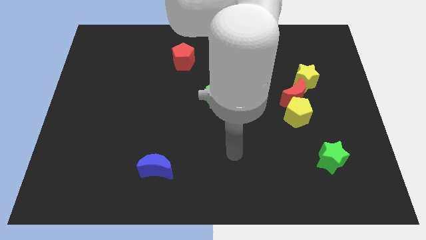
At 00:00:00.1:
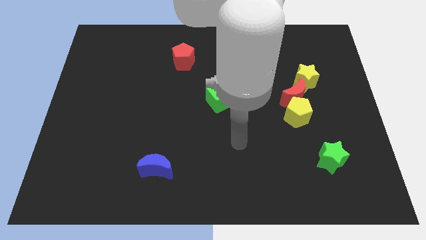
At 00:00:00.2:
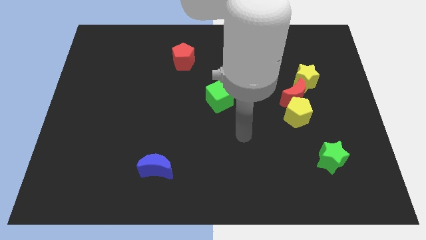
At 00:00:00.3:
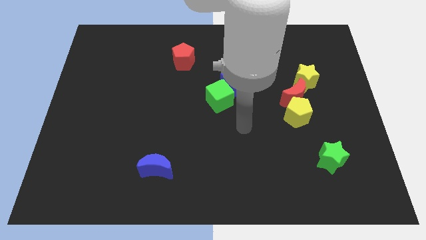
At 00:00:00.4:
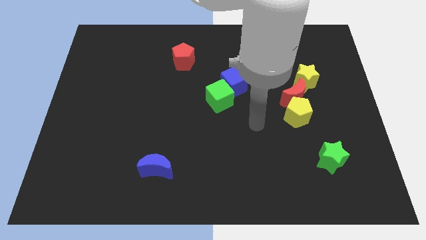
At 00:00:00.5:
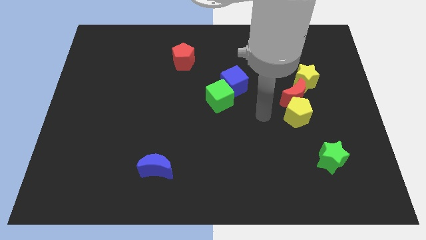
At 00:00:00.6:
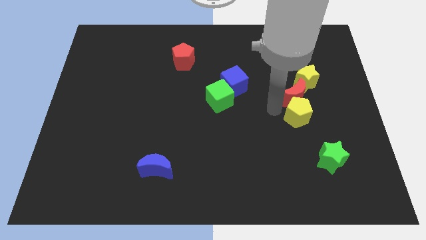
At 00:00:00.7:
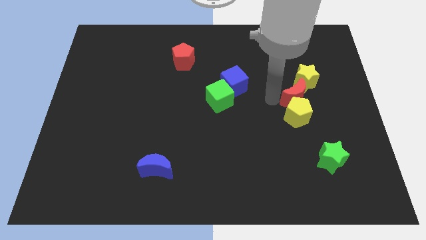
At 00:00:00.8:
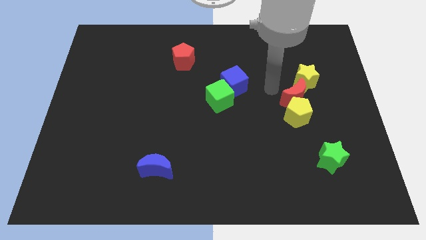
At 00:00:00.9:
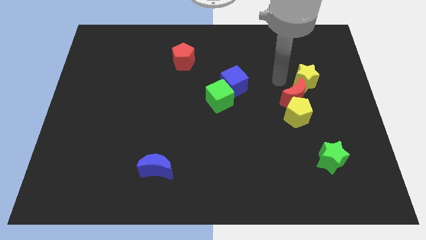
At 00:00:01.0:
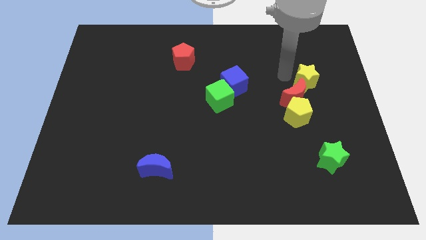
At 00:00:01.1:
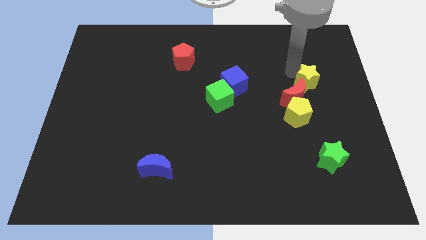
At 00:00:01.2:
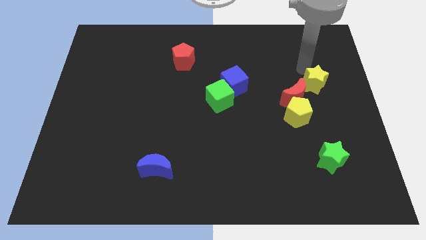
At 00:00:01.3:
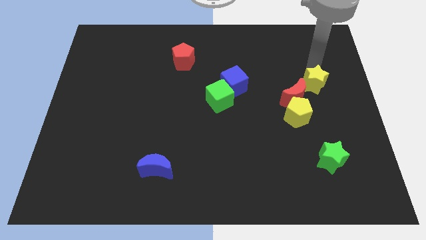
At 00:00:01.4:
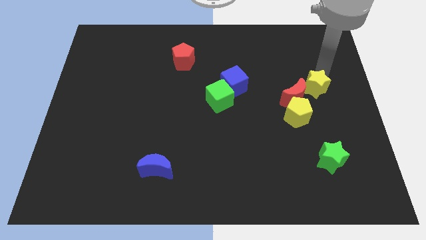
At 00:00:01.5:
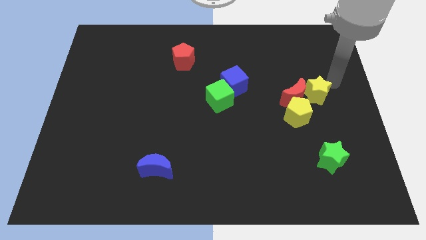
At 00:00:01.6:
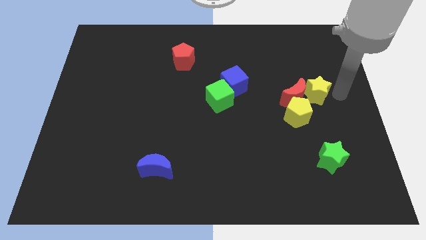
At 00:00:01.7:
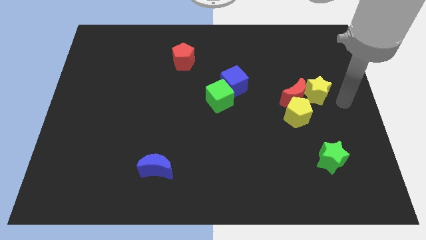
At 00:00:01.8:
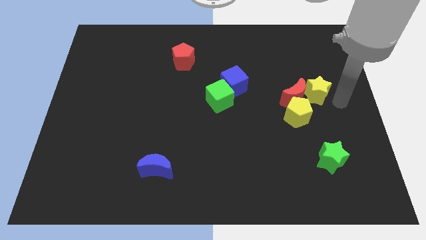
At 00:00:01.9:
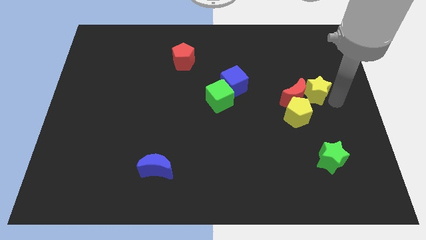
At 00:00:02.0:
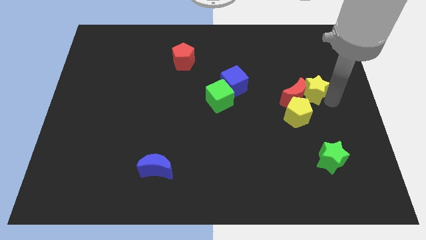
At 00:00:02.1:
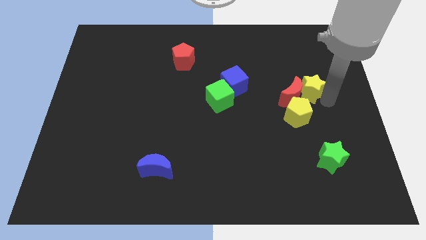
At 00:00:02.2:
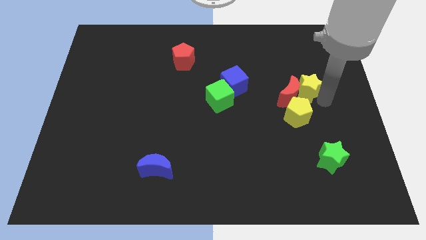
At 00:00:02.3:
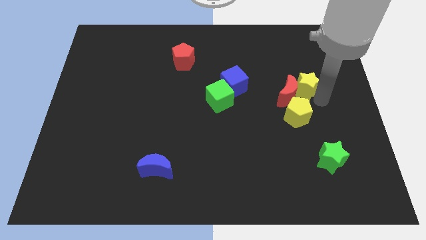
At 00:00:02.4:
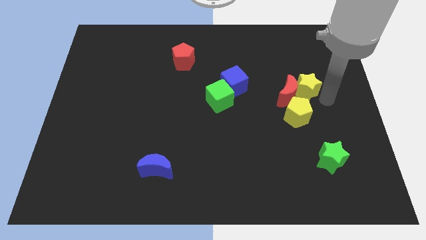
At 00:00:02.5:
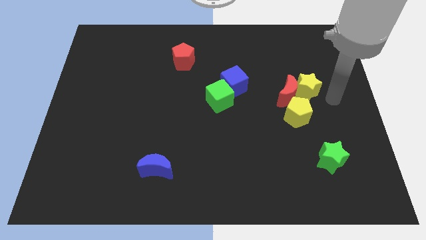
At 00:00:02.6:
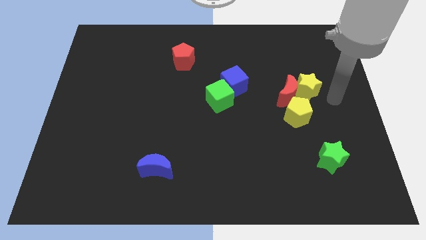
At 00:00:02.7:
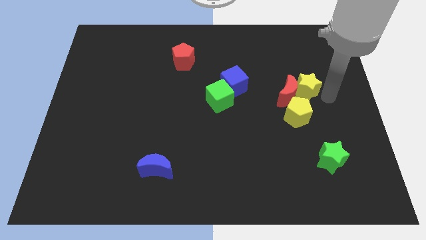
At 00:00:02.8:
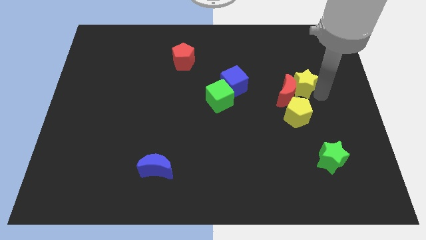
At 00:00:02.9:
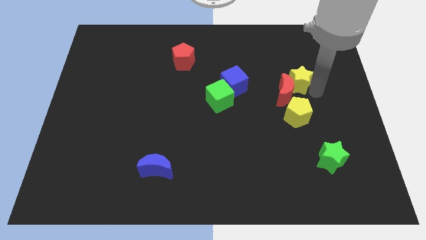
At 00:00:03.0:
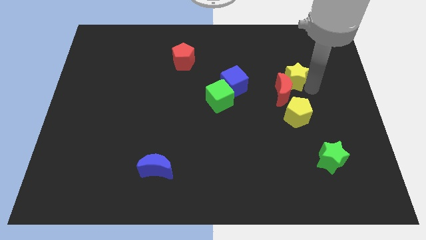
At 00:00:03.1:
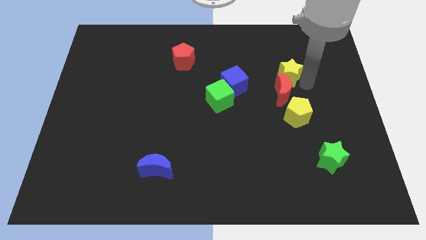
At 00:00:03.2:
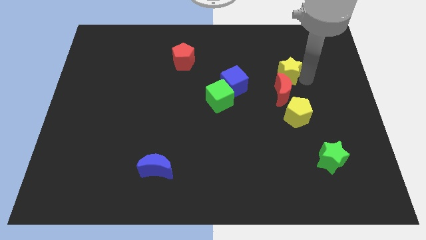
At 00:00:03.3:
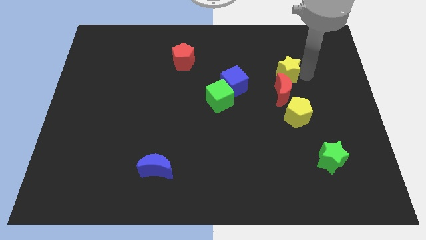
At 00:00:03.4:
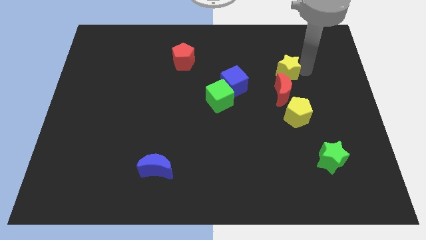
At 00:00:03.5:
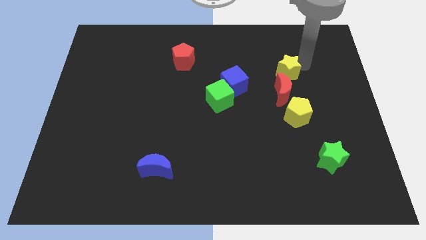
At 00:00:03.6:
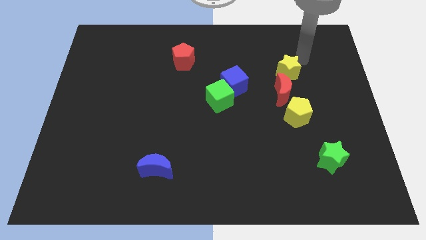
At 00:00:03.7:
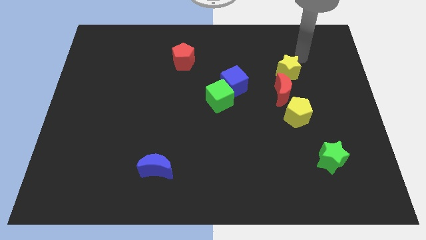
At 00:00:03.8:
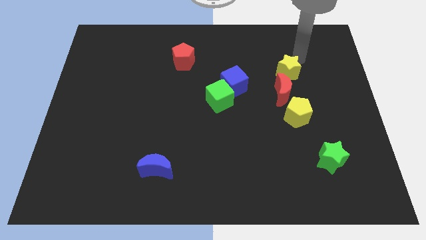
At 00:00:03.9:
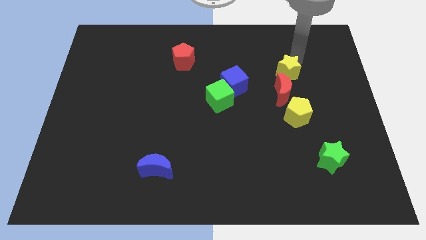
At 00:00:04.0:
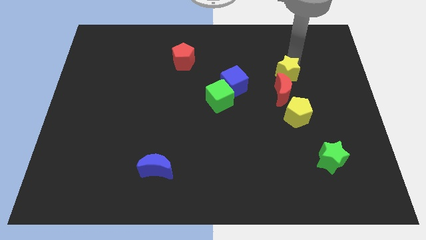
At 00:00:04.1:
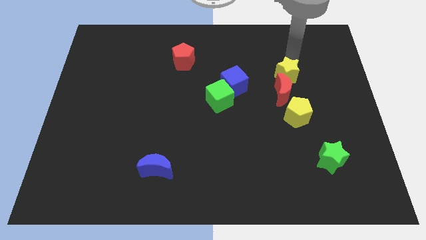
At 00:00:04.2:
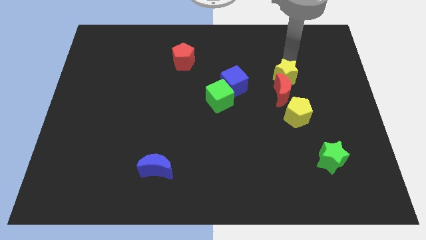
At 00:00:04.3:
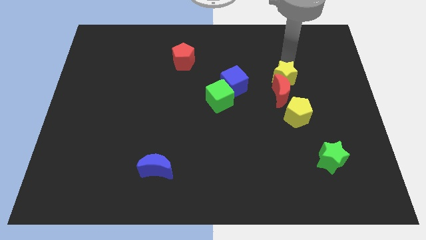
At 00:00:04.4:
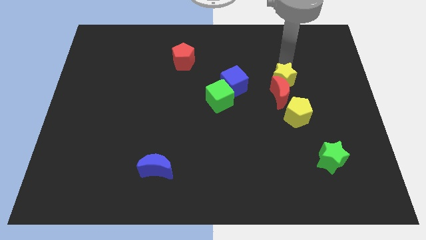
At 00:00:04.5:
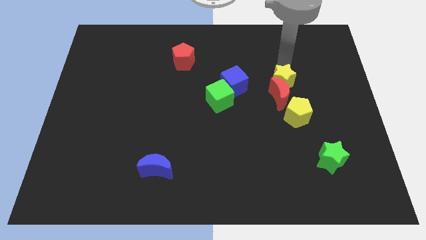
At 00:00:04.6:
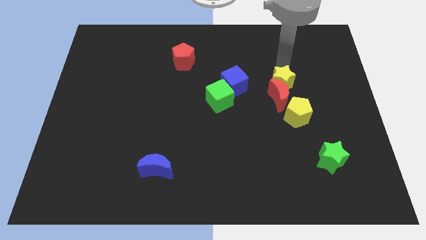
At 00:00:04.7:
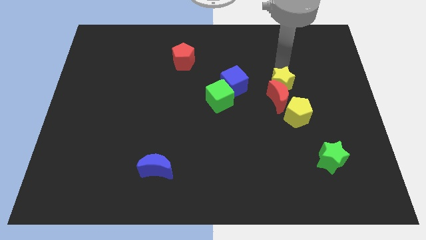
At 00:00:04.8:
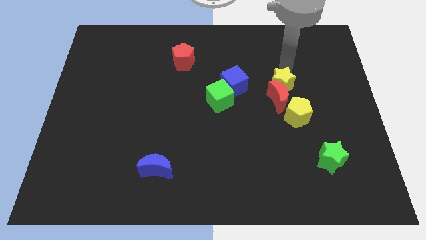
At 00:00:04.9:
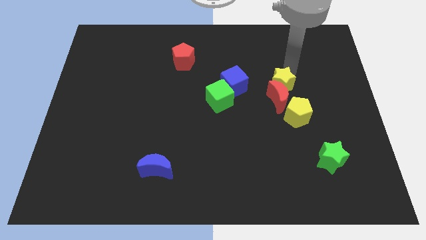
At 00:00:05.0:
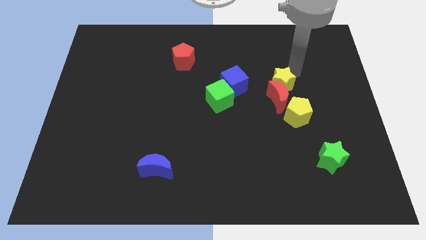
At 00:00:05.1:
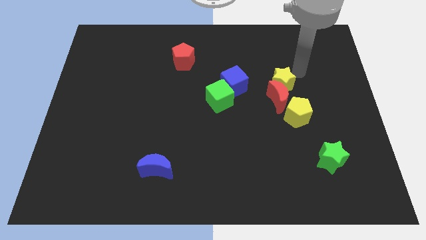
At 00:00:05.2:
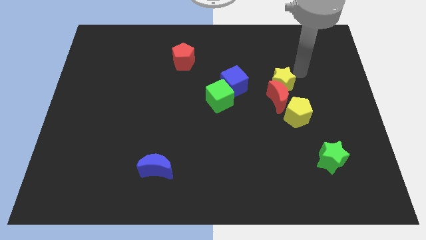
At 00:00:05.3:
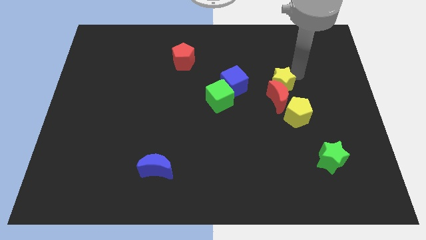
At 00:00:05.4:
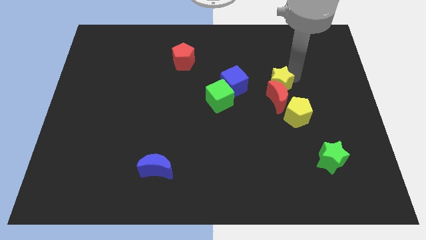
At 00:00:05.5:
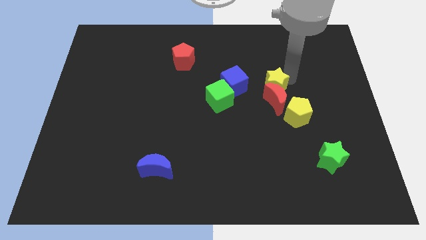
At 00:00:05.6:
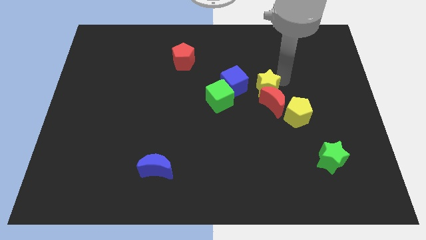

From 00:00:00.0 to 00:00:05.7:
slide the yellow star diagonally down and left a little bit

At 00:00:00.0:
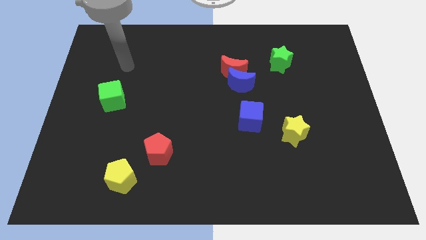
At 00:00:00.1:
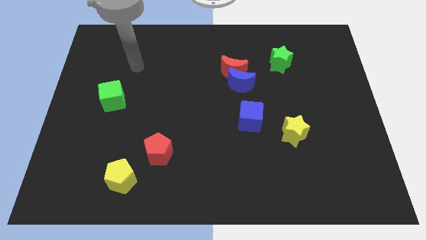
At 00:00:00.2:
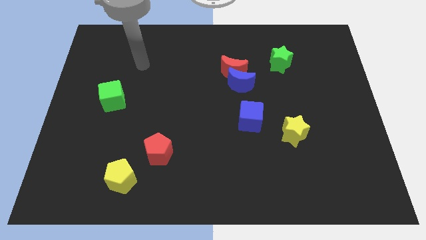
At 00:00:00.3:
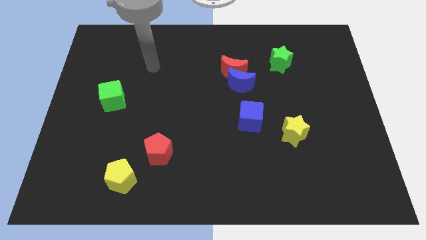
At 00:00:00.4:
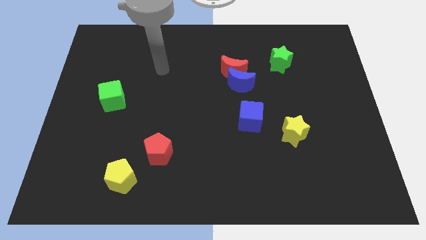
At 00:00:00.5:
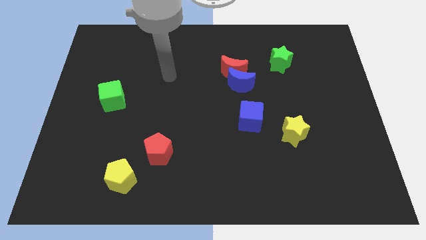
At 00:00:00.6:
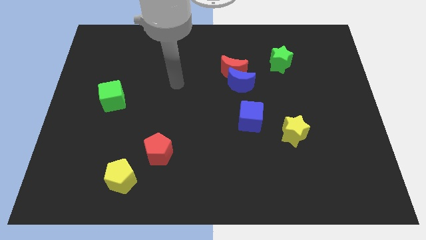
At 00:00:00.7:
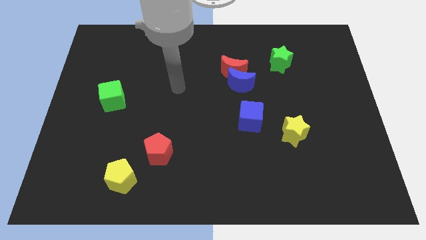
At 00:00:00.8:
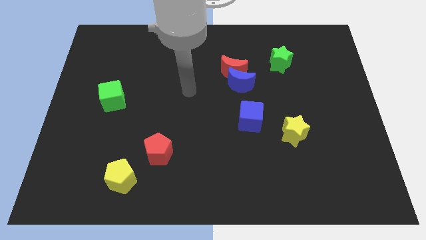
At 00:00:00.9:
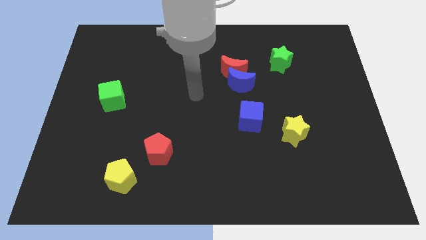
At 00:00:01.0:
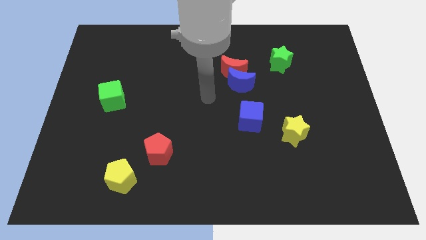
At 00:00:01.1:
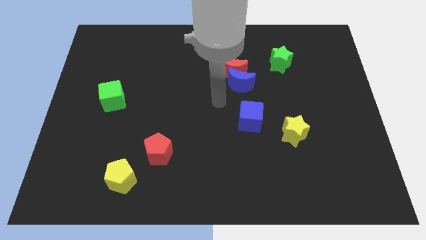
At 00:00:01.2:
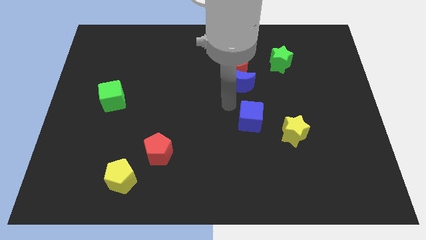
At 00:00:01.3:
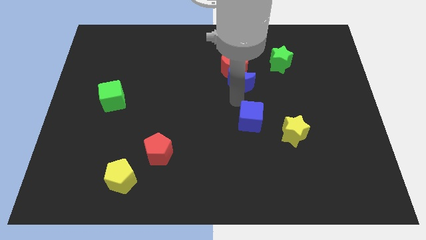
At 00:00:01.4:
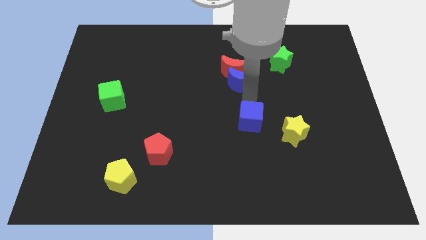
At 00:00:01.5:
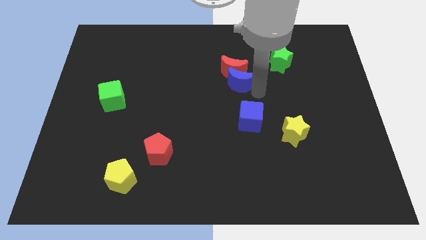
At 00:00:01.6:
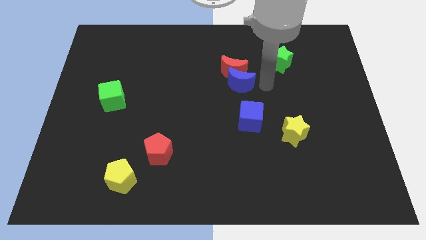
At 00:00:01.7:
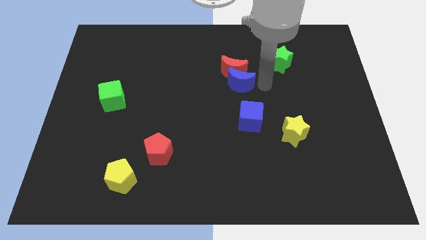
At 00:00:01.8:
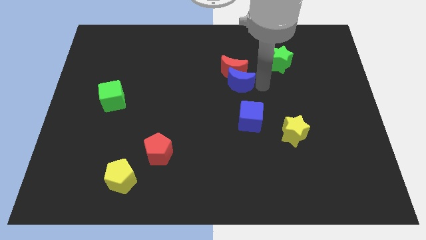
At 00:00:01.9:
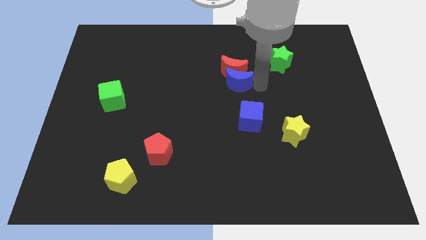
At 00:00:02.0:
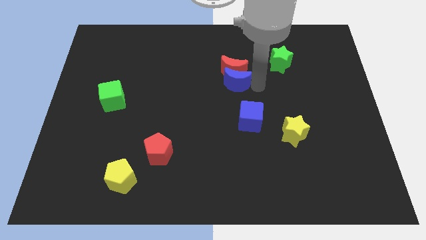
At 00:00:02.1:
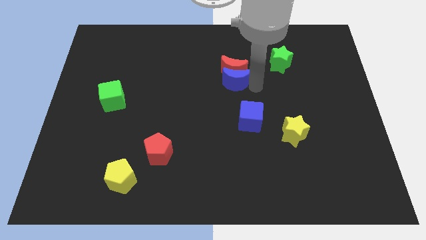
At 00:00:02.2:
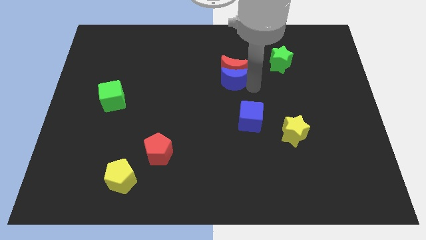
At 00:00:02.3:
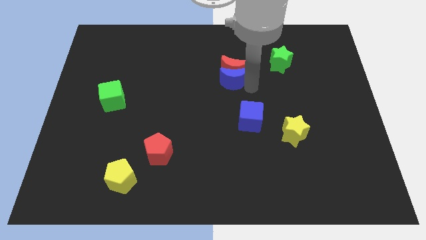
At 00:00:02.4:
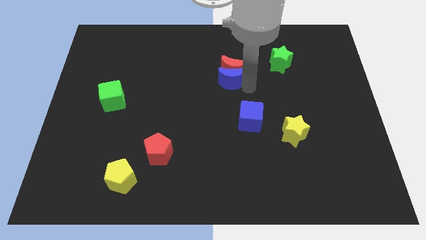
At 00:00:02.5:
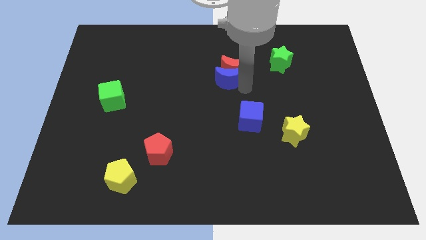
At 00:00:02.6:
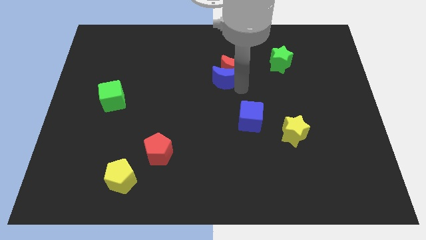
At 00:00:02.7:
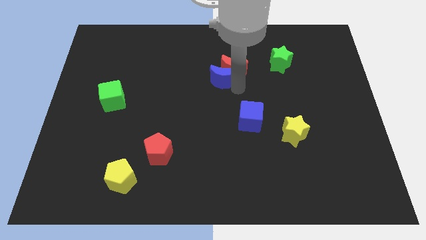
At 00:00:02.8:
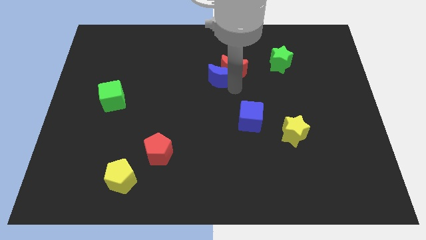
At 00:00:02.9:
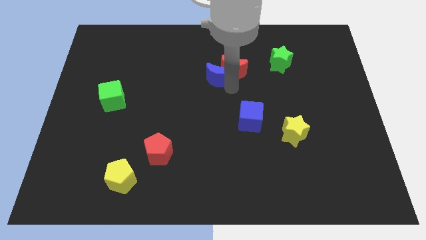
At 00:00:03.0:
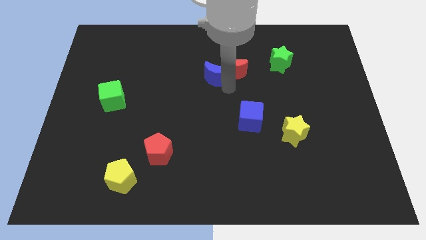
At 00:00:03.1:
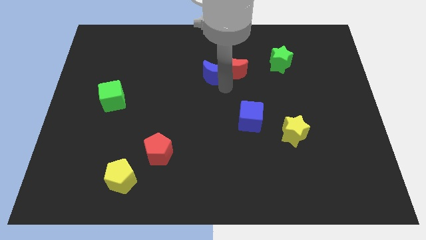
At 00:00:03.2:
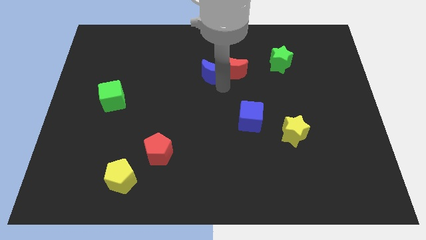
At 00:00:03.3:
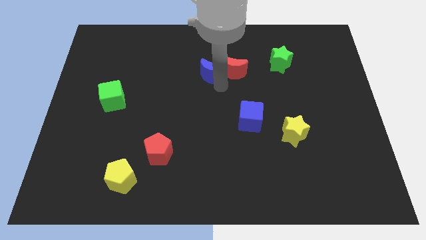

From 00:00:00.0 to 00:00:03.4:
move the blue moon left a bit
